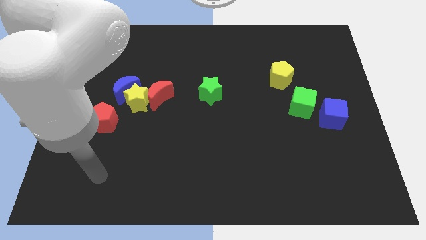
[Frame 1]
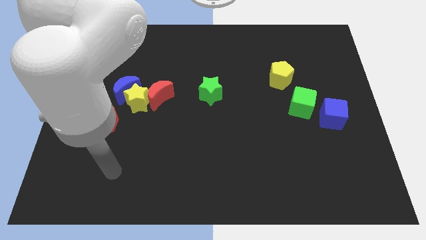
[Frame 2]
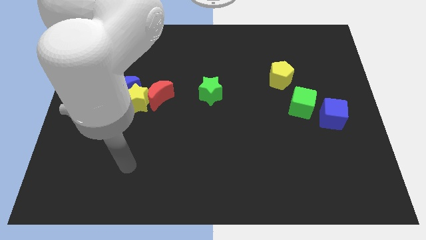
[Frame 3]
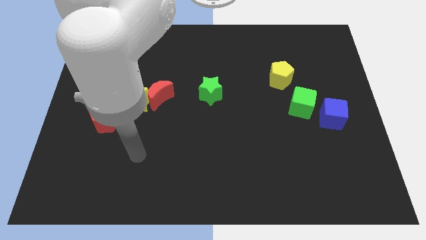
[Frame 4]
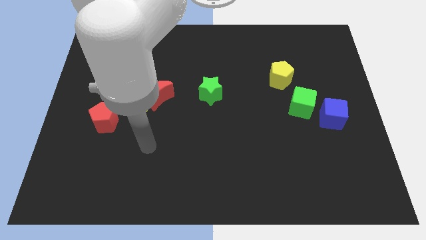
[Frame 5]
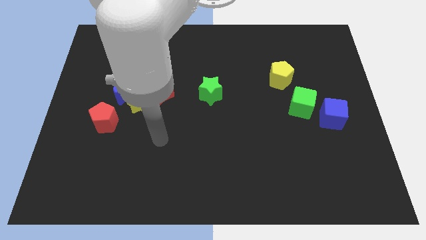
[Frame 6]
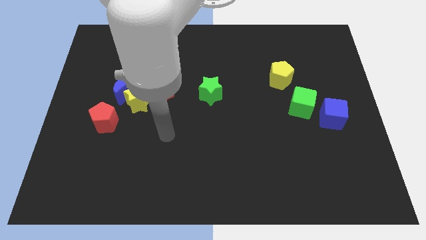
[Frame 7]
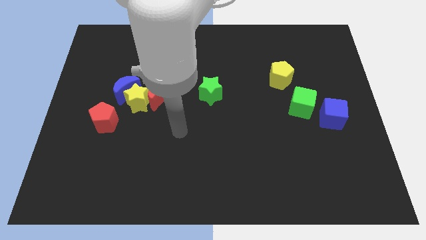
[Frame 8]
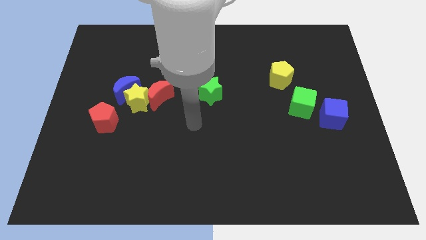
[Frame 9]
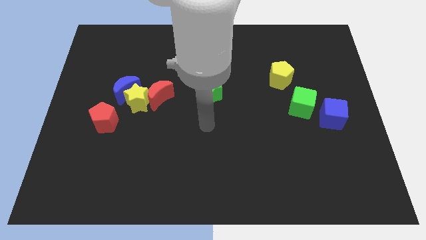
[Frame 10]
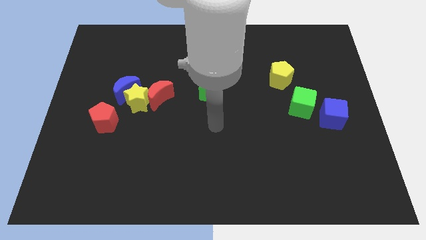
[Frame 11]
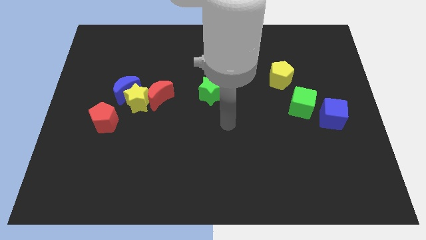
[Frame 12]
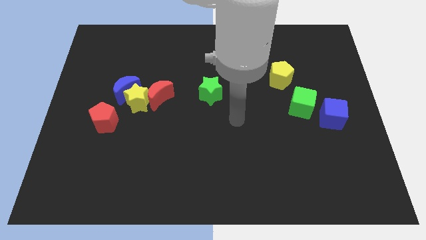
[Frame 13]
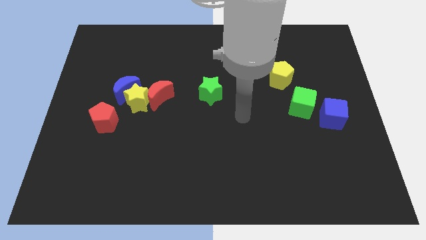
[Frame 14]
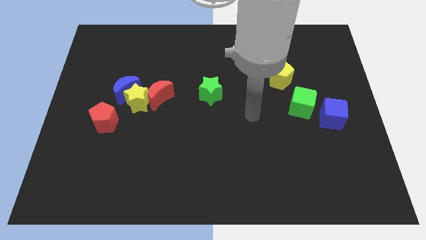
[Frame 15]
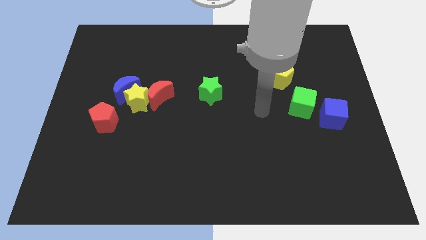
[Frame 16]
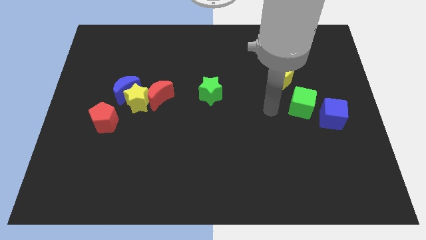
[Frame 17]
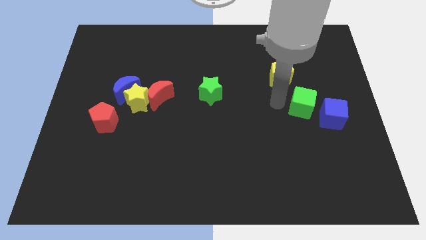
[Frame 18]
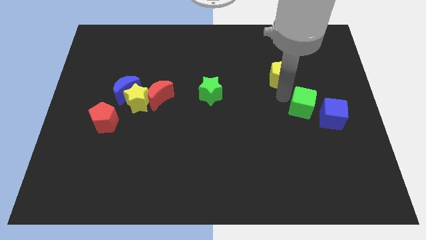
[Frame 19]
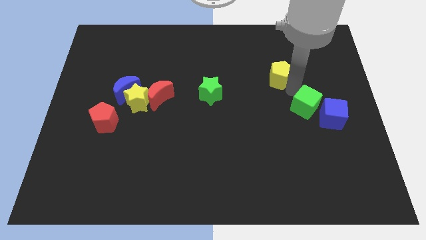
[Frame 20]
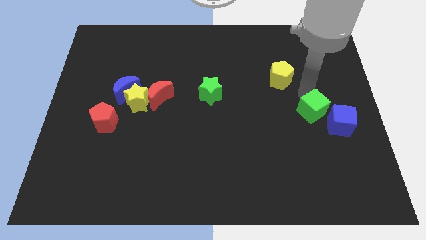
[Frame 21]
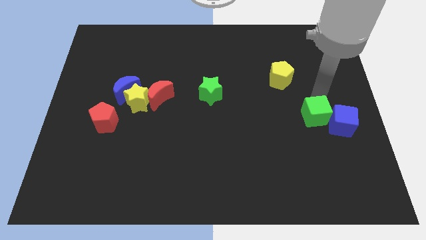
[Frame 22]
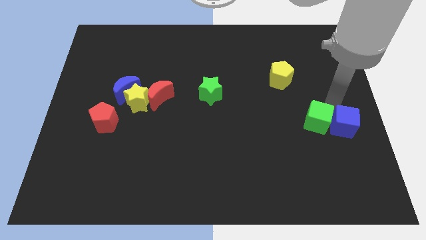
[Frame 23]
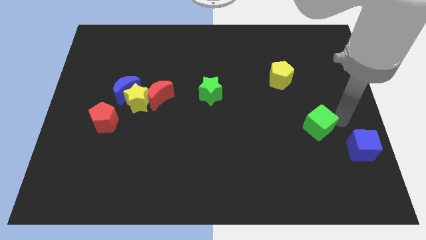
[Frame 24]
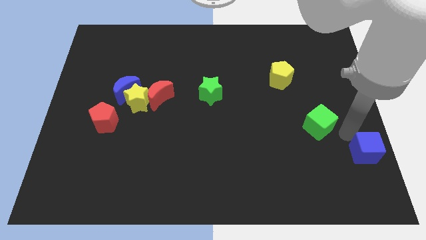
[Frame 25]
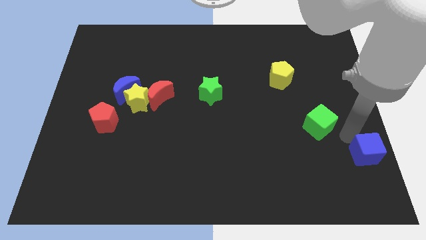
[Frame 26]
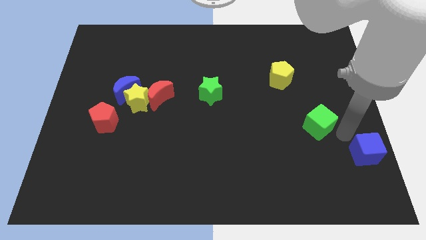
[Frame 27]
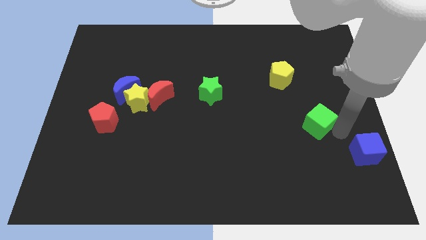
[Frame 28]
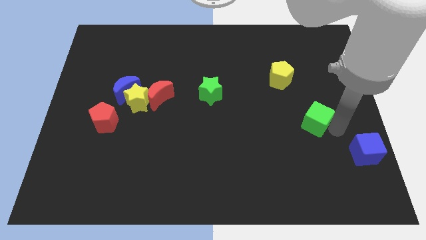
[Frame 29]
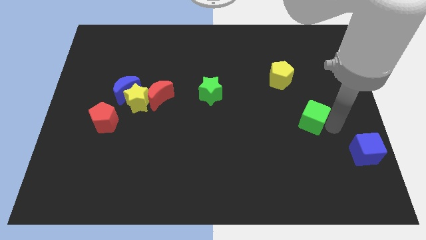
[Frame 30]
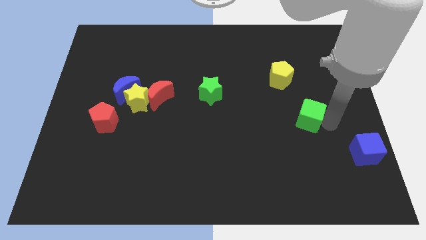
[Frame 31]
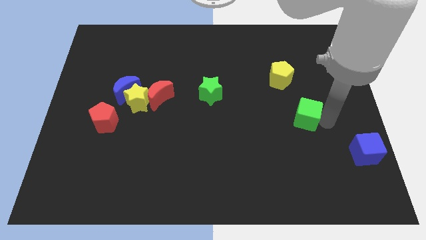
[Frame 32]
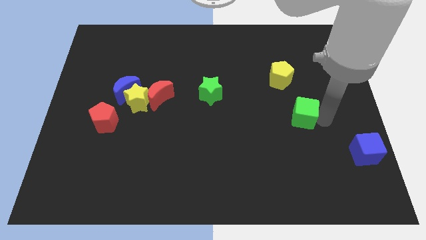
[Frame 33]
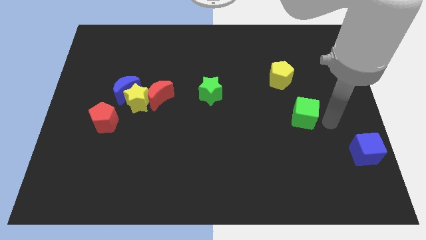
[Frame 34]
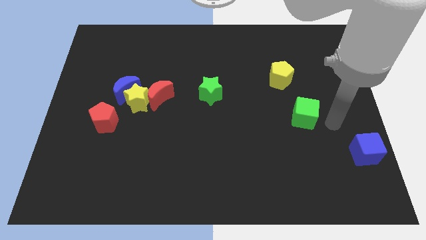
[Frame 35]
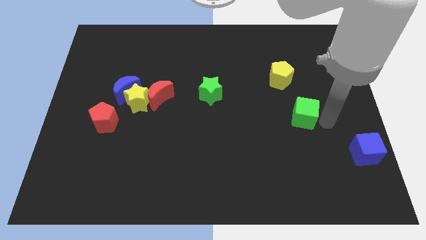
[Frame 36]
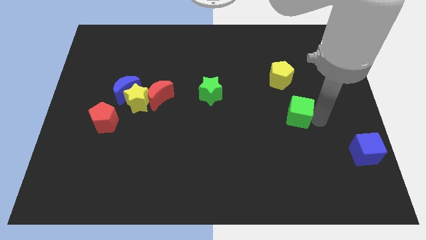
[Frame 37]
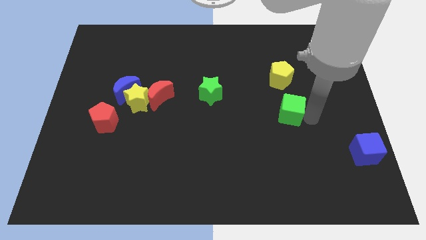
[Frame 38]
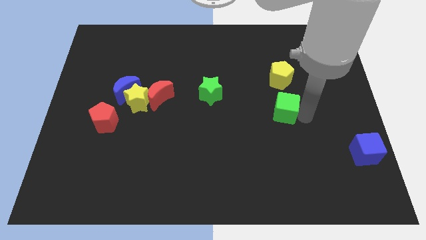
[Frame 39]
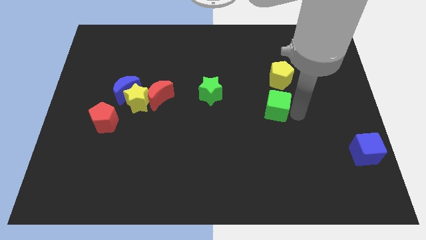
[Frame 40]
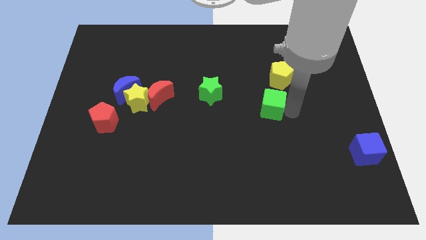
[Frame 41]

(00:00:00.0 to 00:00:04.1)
move the green cube a bit left

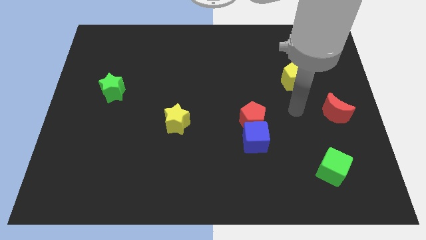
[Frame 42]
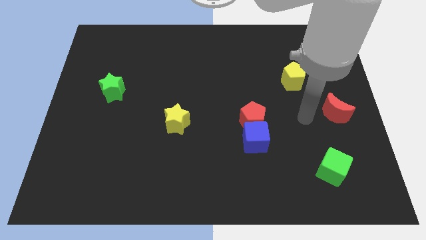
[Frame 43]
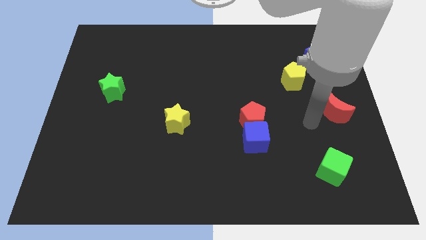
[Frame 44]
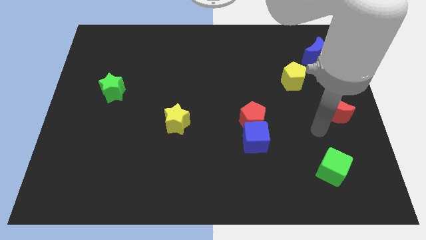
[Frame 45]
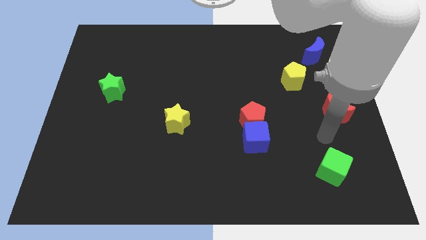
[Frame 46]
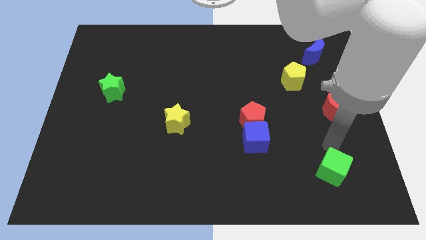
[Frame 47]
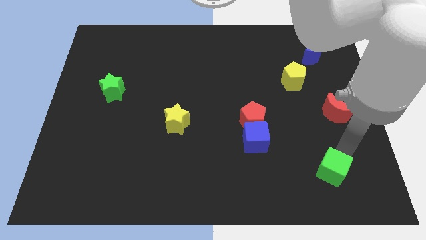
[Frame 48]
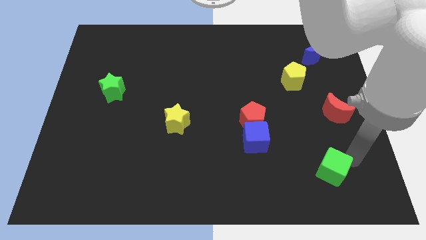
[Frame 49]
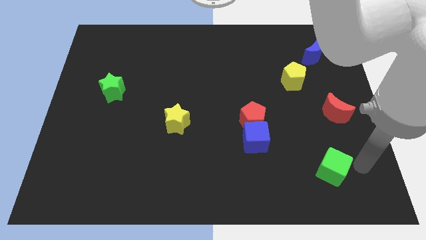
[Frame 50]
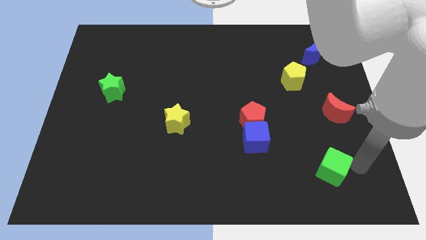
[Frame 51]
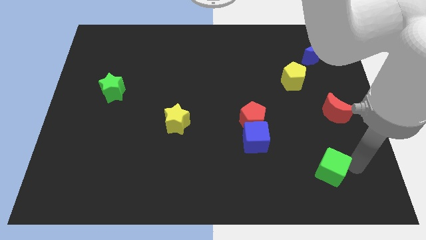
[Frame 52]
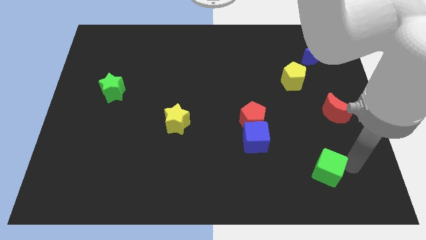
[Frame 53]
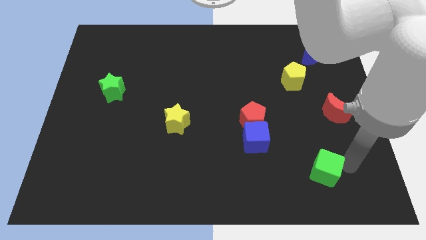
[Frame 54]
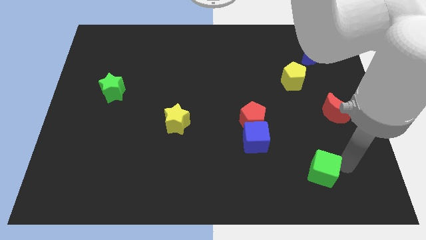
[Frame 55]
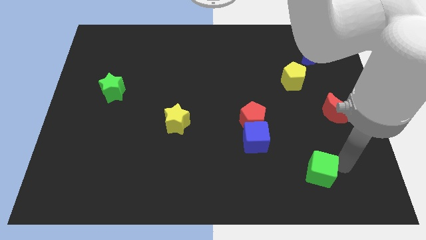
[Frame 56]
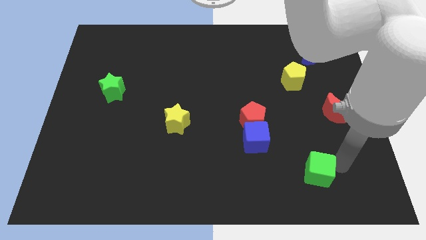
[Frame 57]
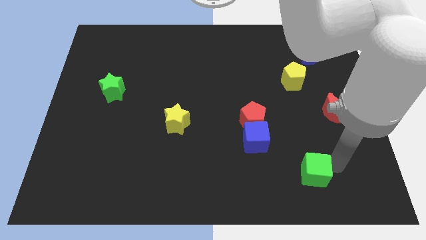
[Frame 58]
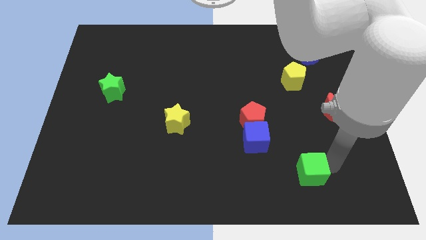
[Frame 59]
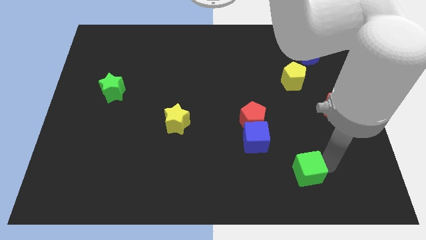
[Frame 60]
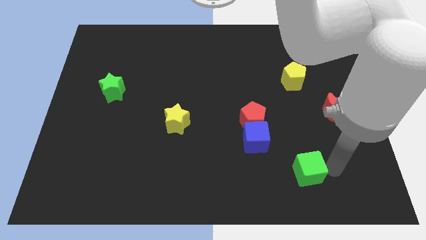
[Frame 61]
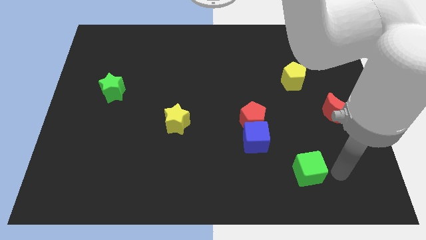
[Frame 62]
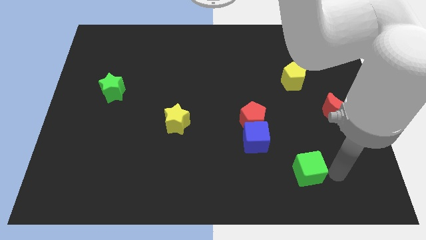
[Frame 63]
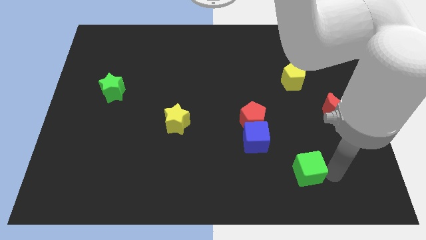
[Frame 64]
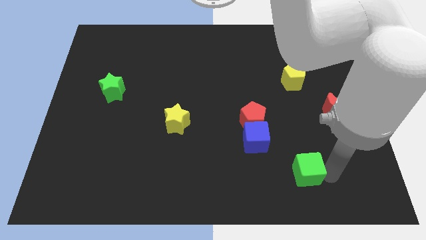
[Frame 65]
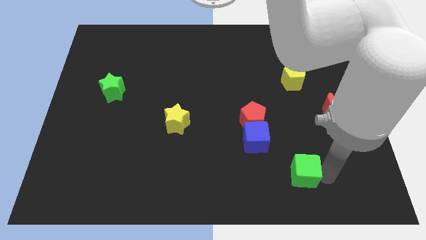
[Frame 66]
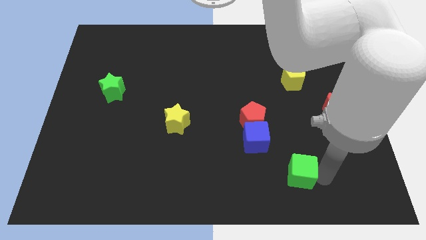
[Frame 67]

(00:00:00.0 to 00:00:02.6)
slightly move the green cube to the left

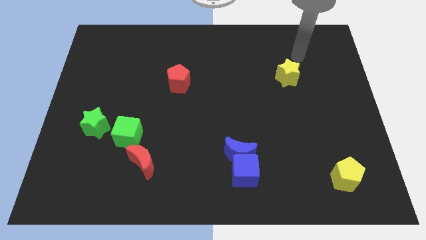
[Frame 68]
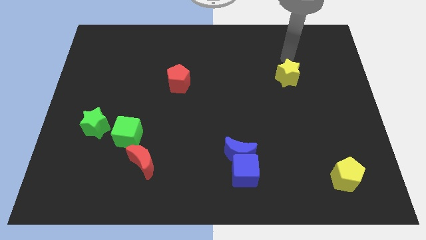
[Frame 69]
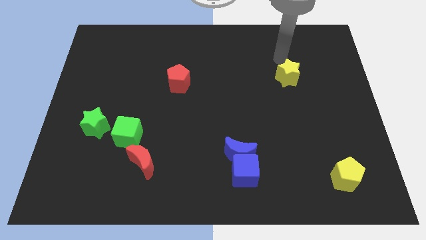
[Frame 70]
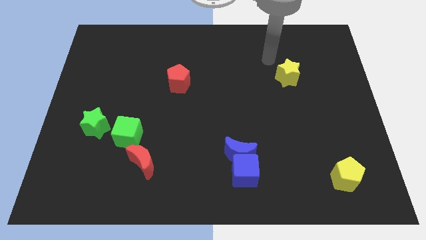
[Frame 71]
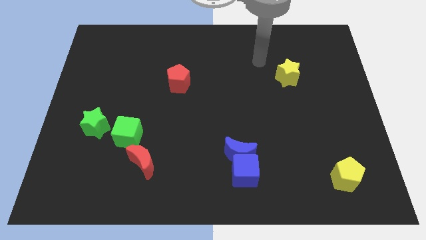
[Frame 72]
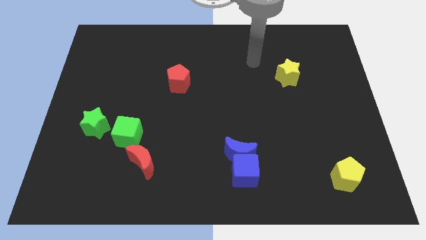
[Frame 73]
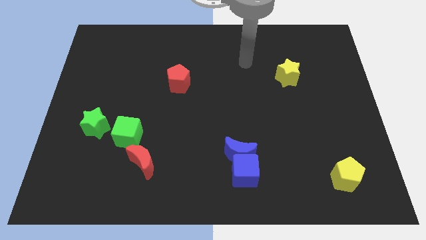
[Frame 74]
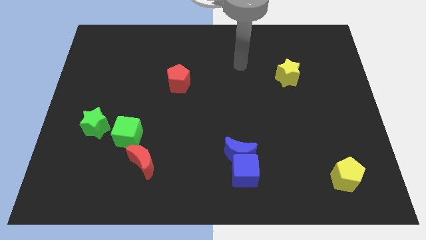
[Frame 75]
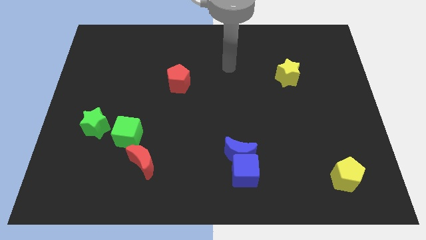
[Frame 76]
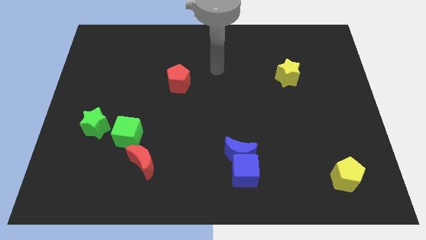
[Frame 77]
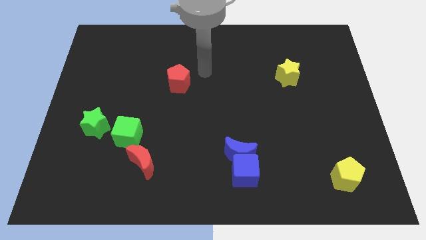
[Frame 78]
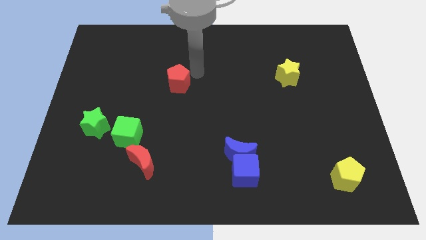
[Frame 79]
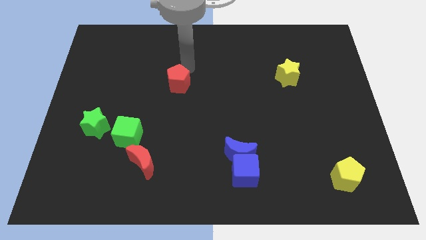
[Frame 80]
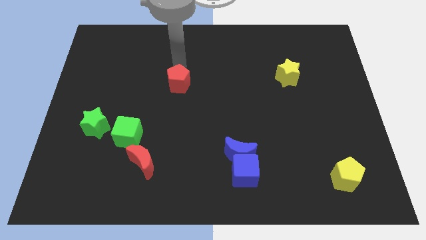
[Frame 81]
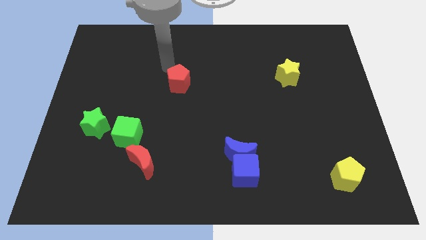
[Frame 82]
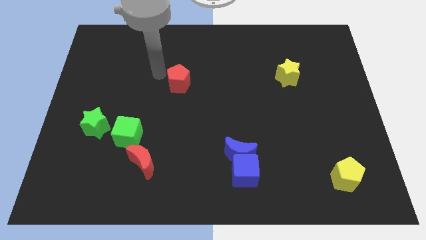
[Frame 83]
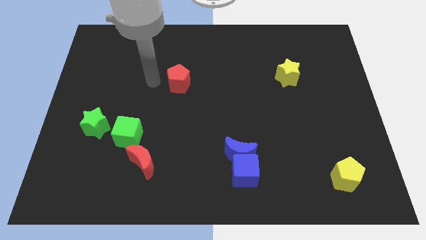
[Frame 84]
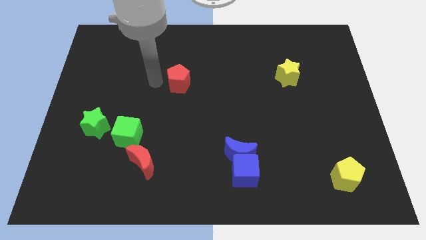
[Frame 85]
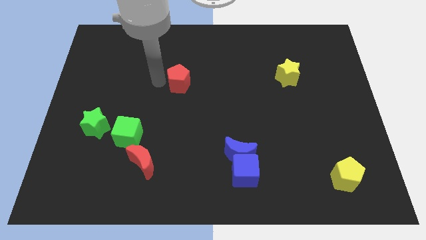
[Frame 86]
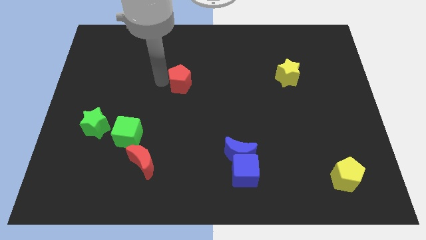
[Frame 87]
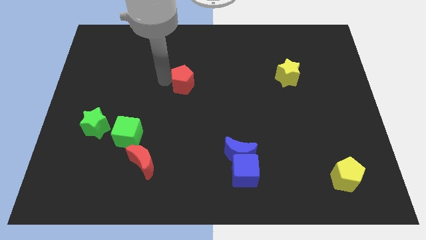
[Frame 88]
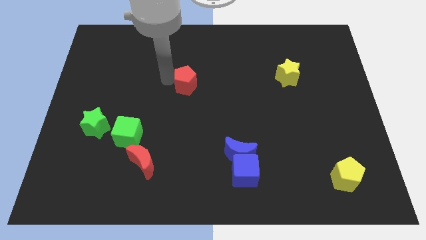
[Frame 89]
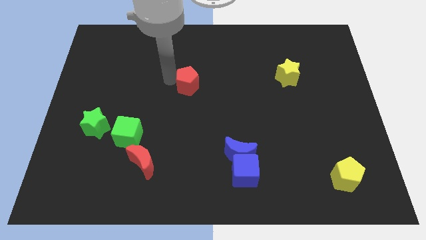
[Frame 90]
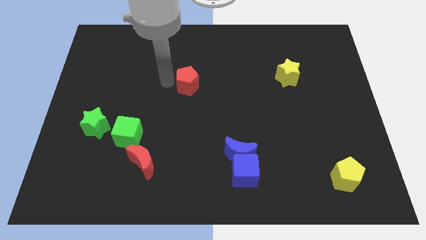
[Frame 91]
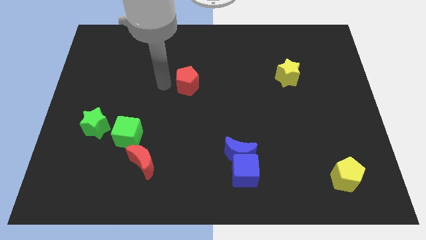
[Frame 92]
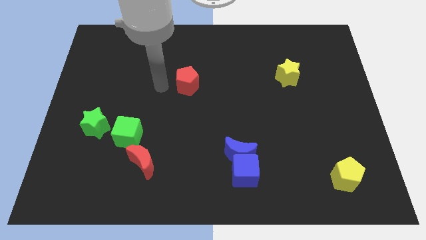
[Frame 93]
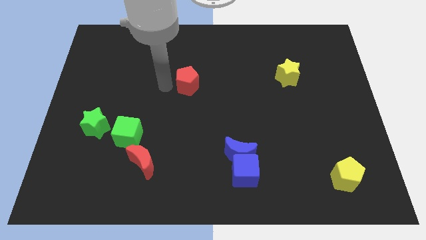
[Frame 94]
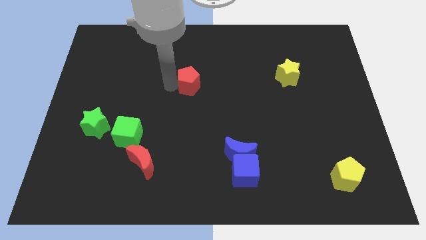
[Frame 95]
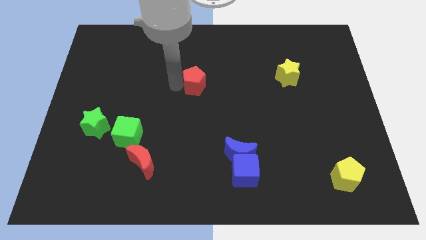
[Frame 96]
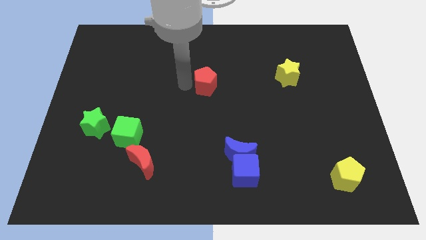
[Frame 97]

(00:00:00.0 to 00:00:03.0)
slightly push the red pentagon to the right
